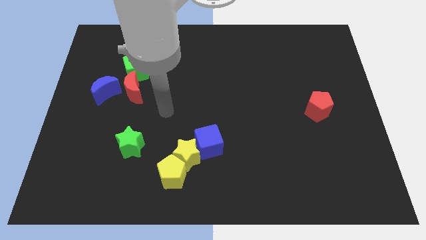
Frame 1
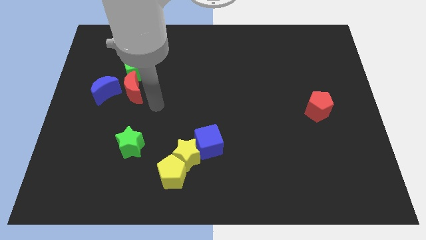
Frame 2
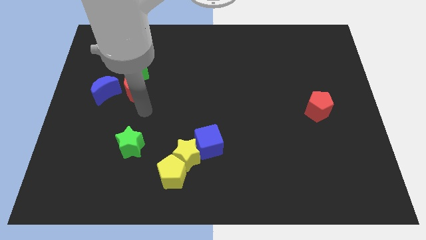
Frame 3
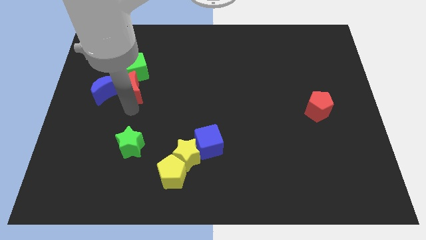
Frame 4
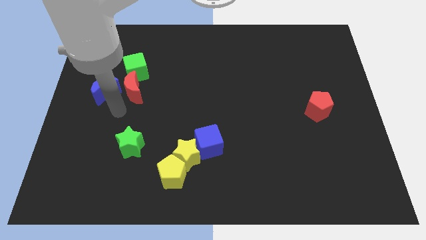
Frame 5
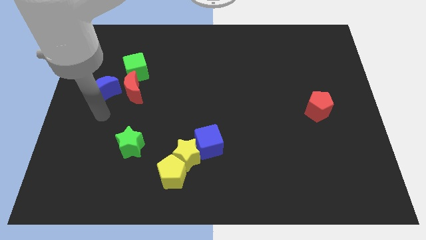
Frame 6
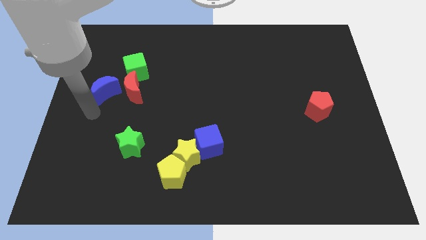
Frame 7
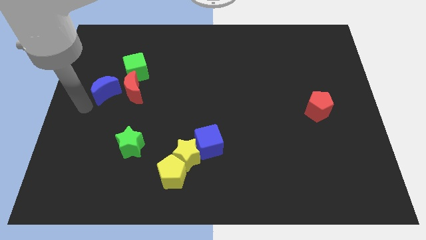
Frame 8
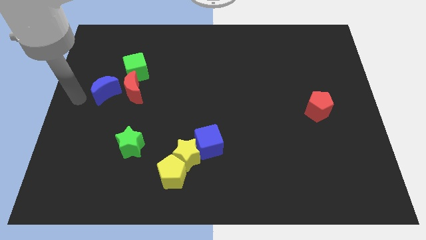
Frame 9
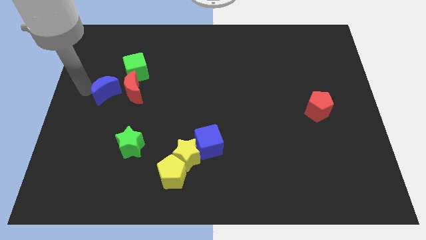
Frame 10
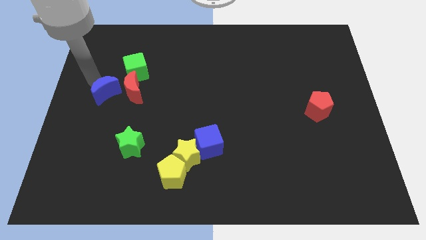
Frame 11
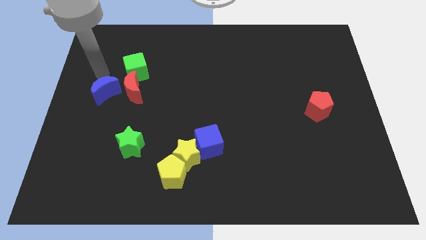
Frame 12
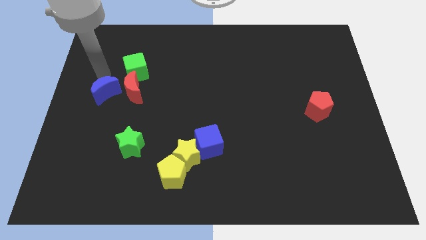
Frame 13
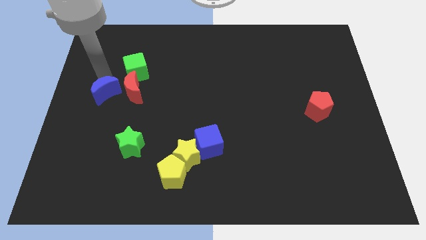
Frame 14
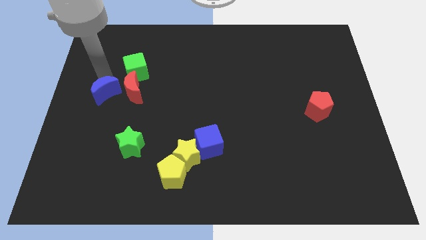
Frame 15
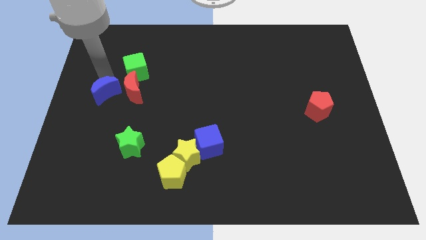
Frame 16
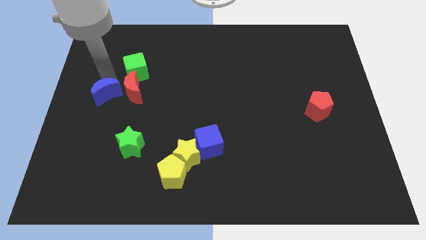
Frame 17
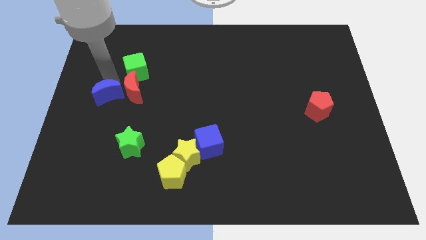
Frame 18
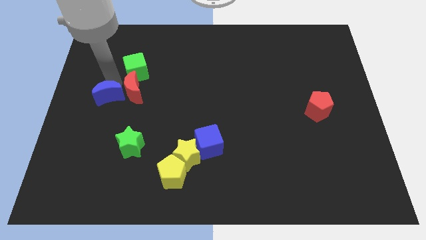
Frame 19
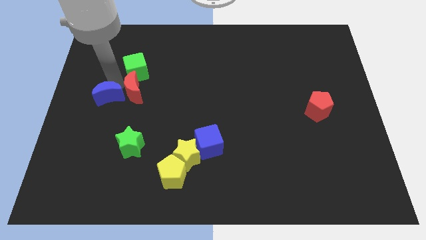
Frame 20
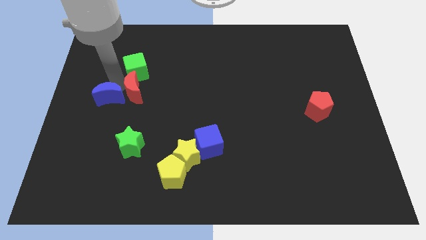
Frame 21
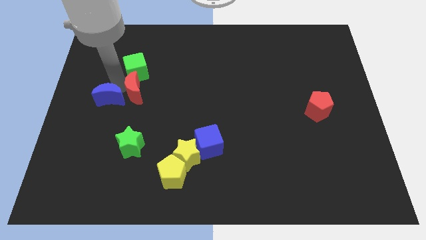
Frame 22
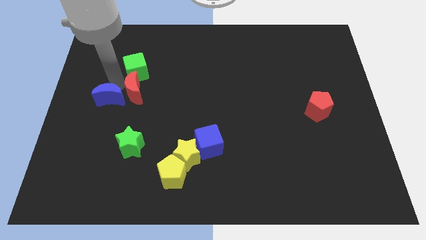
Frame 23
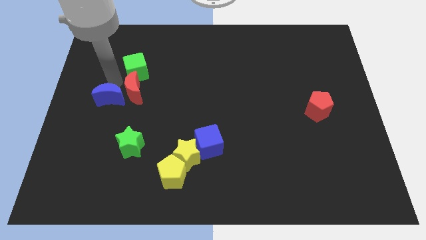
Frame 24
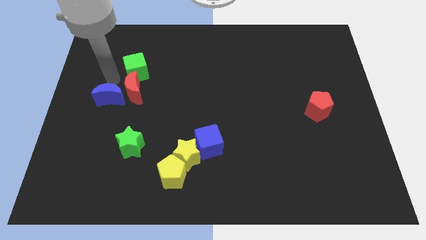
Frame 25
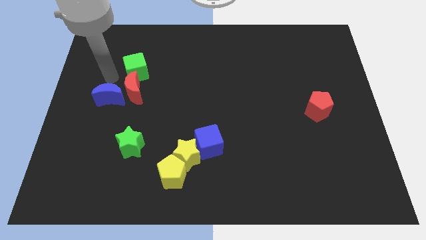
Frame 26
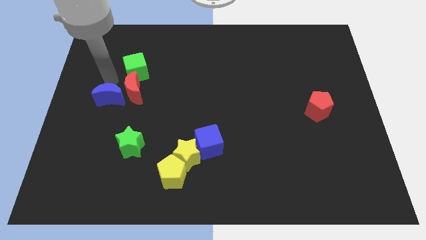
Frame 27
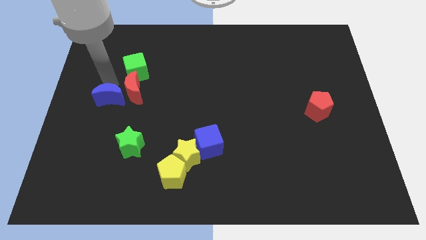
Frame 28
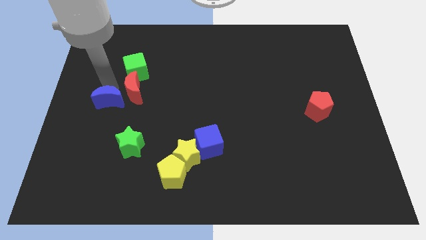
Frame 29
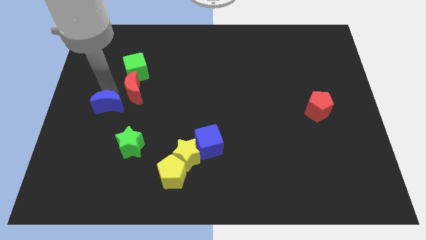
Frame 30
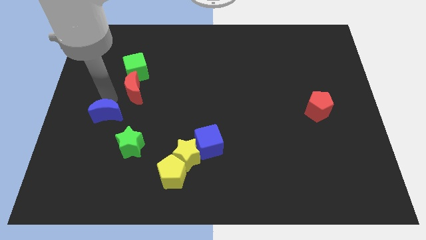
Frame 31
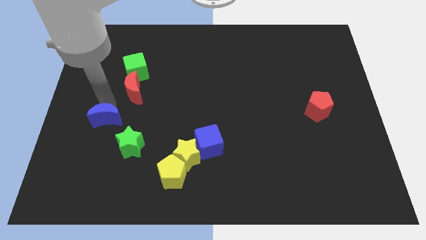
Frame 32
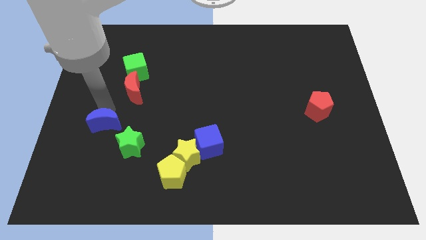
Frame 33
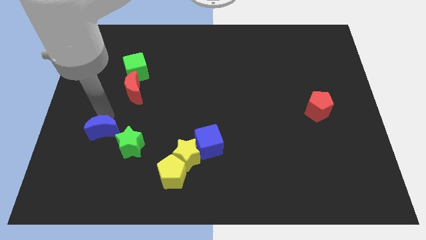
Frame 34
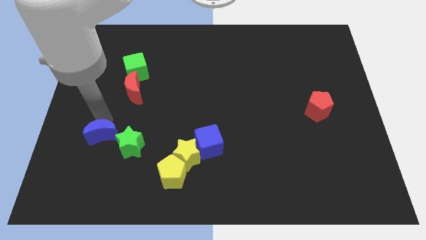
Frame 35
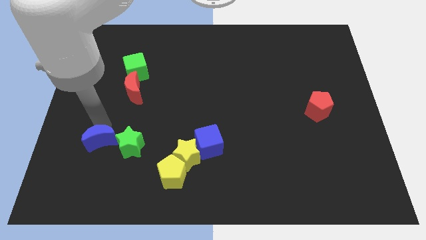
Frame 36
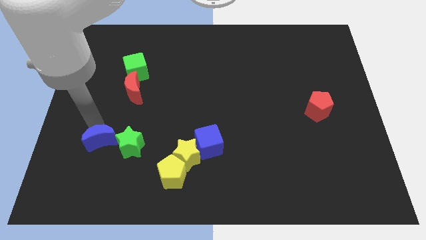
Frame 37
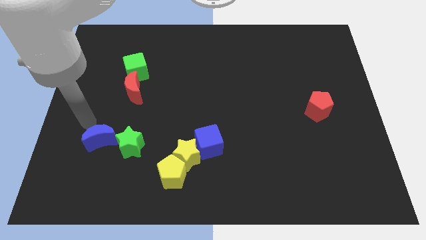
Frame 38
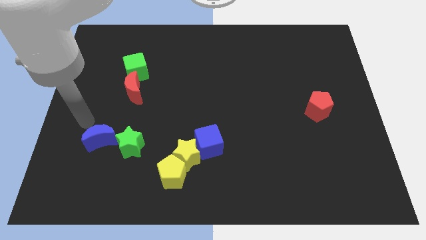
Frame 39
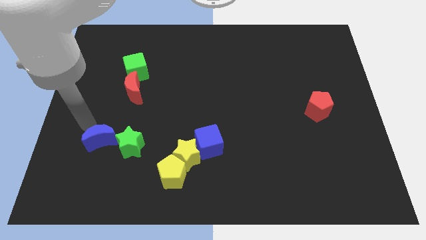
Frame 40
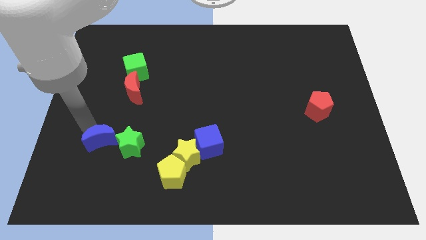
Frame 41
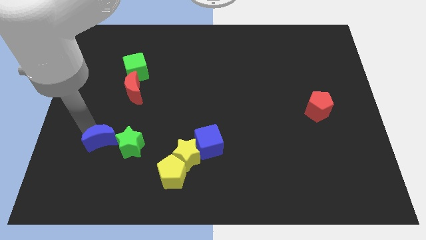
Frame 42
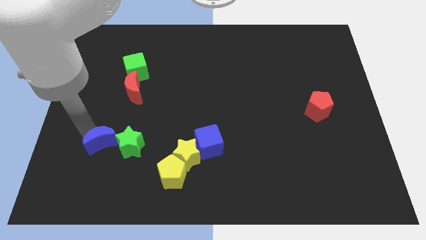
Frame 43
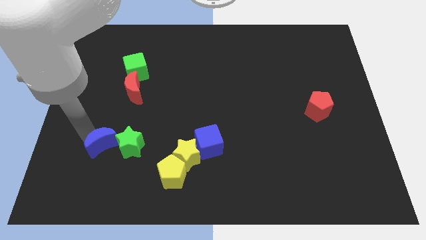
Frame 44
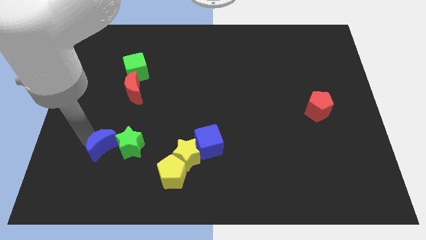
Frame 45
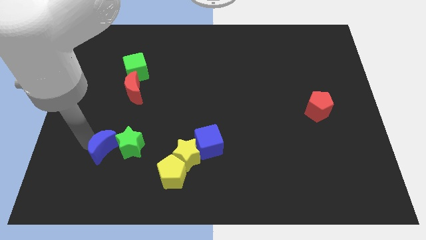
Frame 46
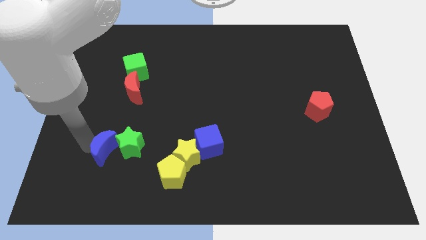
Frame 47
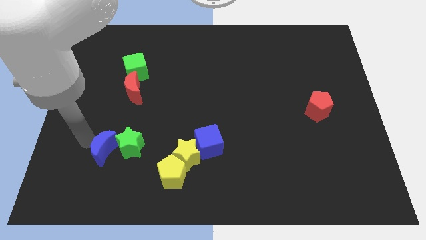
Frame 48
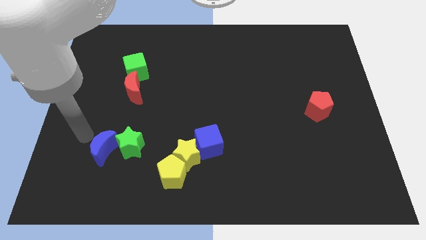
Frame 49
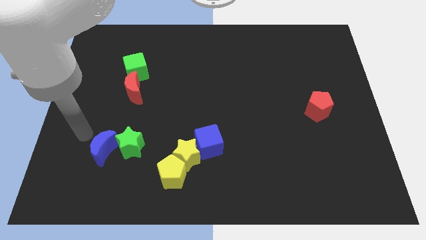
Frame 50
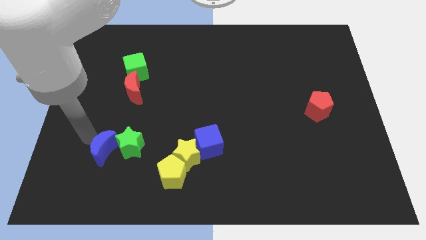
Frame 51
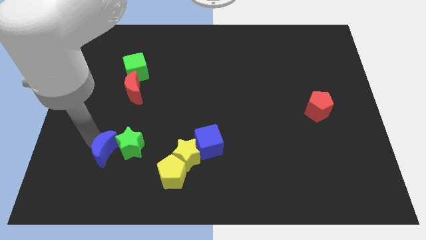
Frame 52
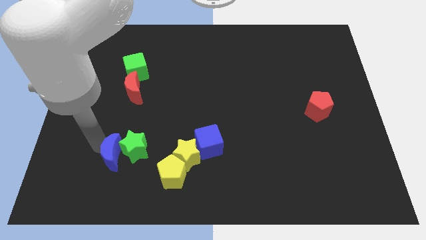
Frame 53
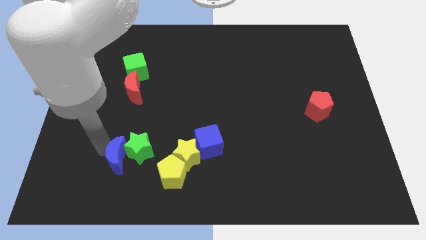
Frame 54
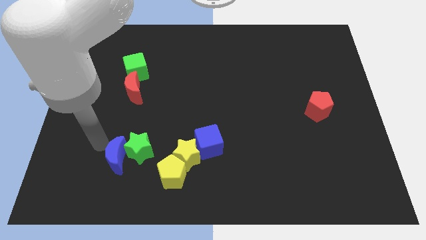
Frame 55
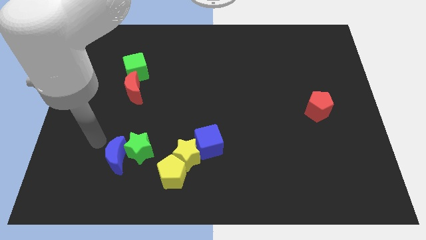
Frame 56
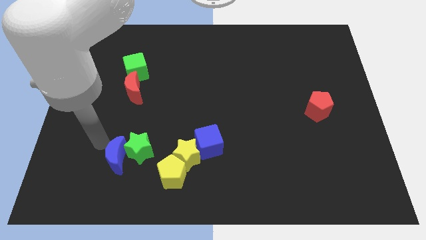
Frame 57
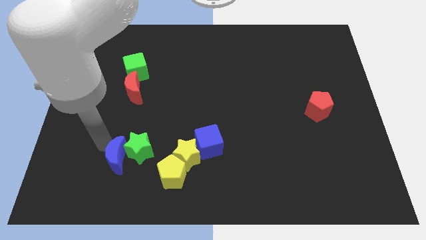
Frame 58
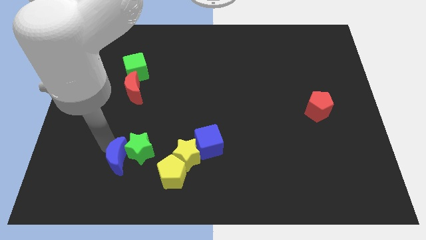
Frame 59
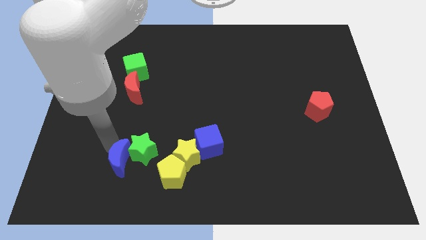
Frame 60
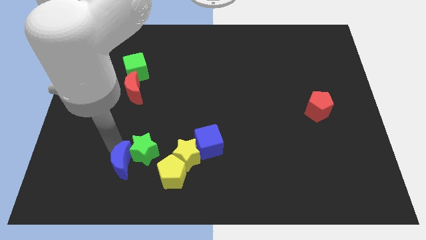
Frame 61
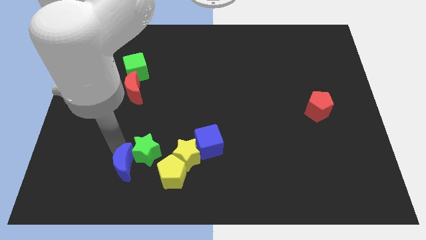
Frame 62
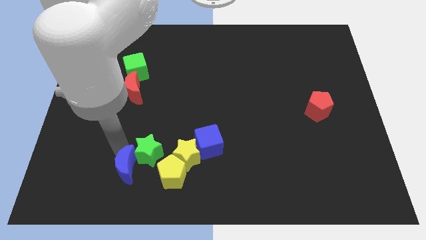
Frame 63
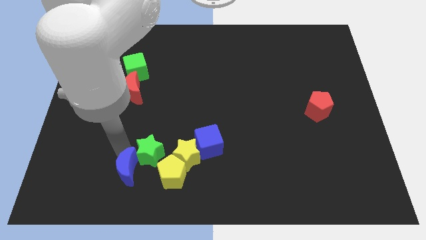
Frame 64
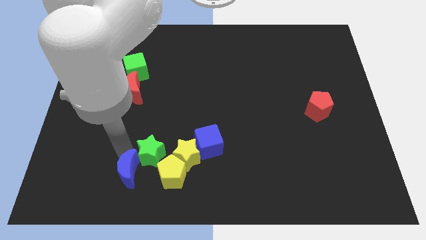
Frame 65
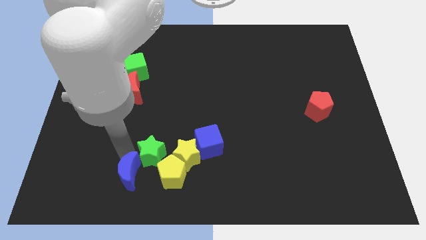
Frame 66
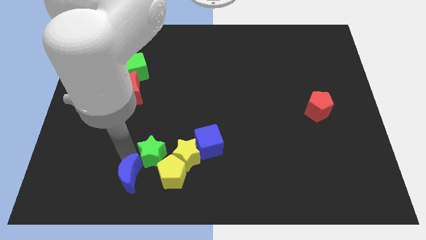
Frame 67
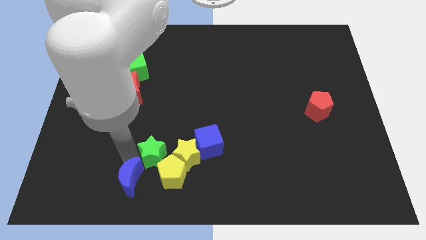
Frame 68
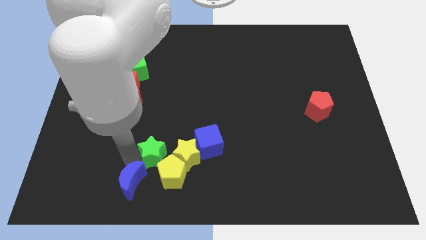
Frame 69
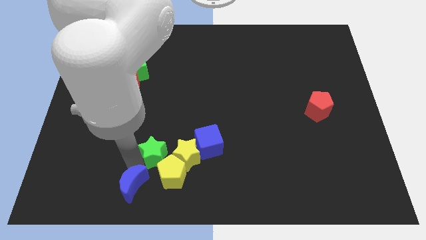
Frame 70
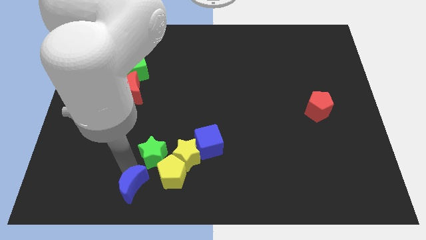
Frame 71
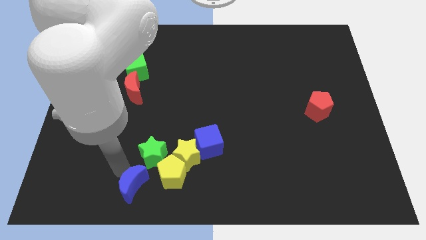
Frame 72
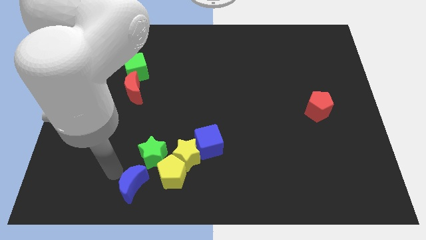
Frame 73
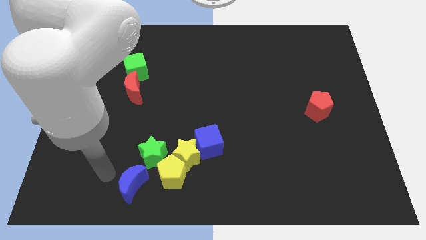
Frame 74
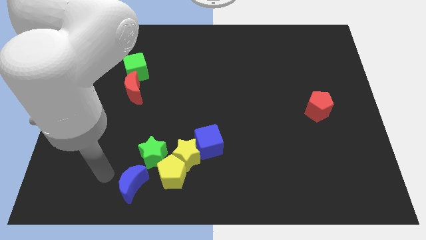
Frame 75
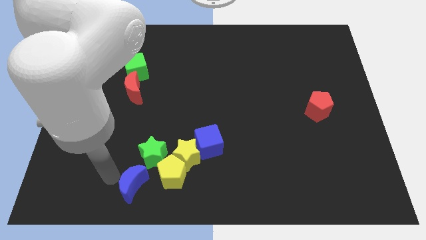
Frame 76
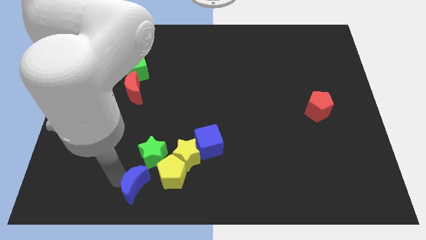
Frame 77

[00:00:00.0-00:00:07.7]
push the blue moon diagonally down and to the right

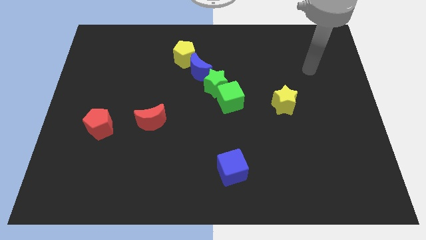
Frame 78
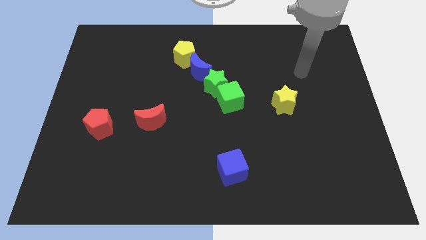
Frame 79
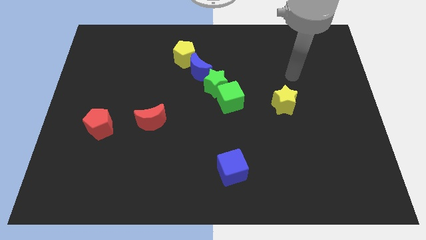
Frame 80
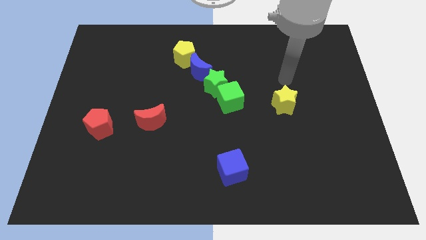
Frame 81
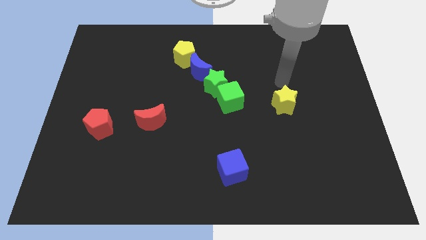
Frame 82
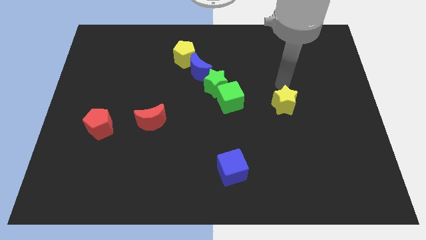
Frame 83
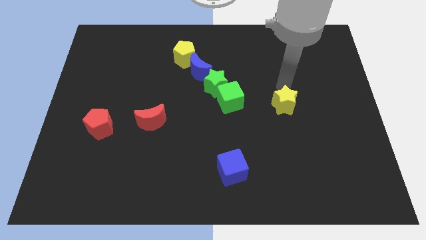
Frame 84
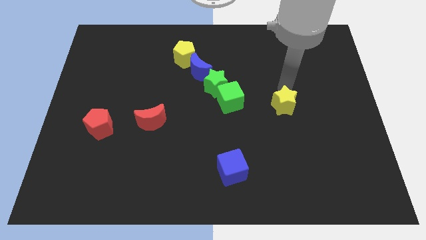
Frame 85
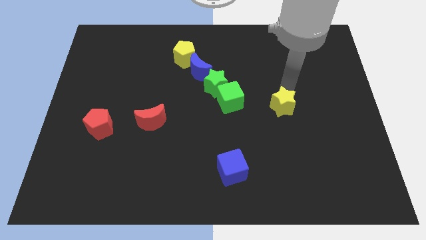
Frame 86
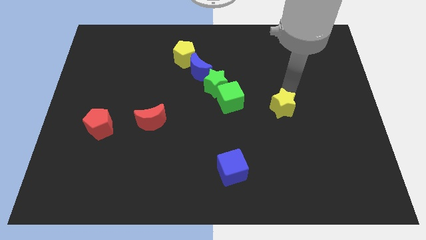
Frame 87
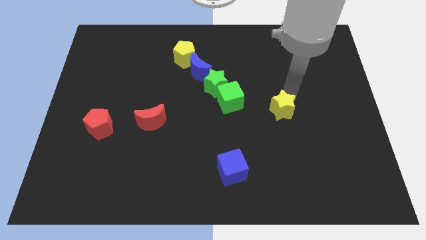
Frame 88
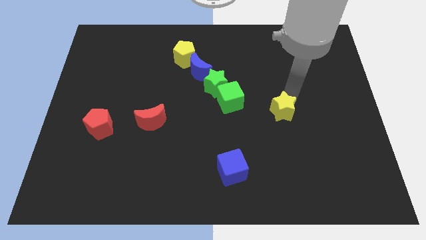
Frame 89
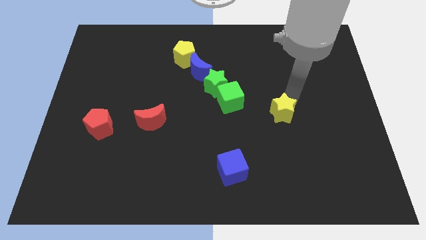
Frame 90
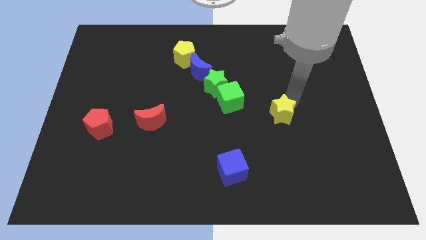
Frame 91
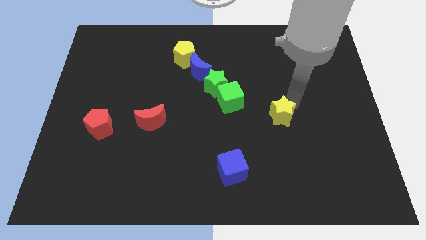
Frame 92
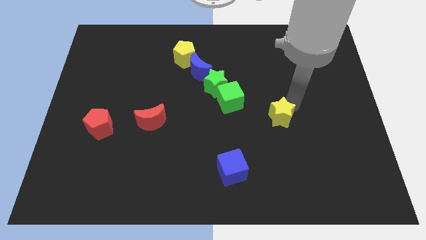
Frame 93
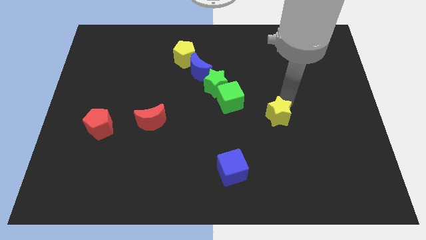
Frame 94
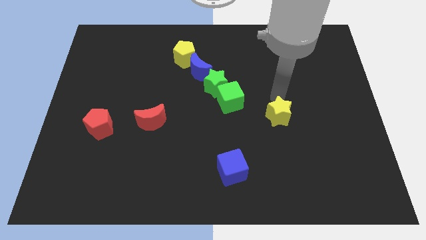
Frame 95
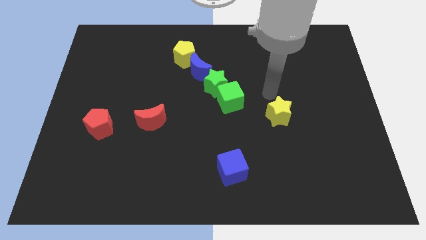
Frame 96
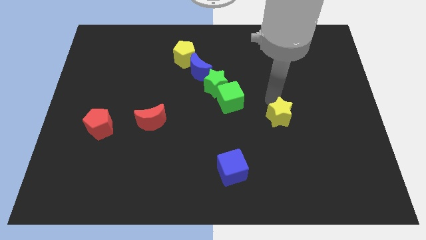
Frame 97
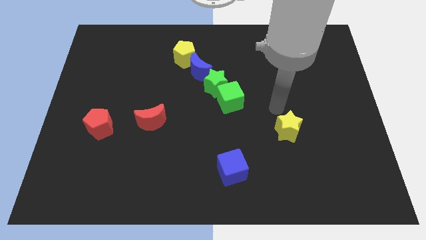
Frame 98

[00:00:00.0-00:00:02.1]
slide the yellow star a bit down
